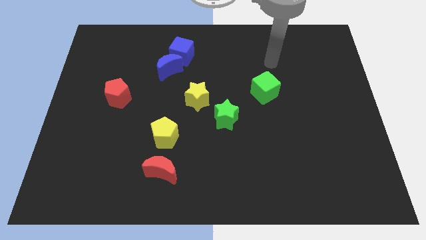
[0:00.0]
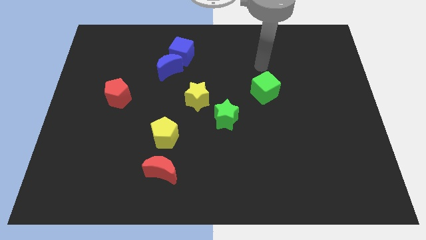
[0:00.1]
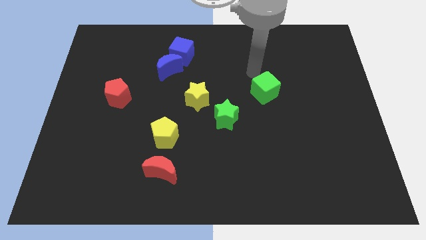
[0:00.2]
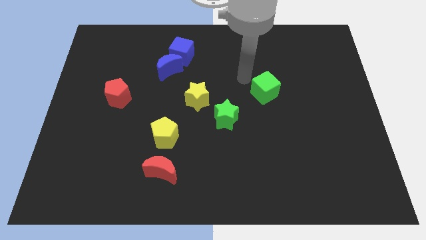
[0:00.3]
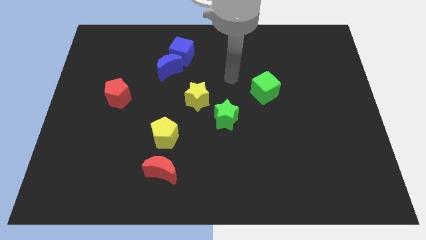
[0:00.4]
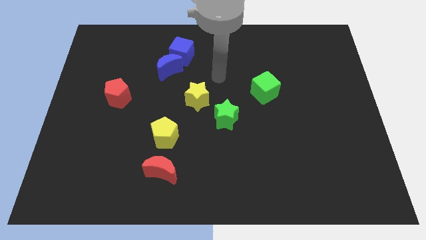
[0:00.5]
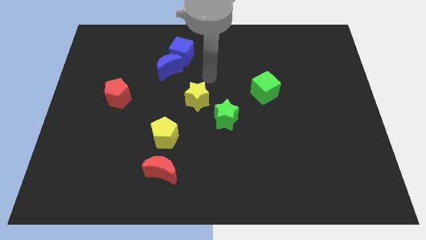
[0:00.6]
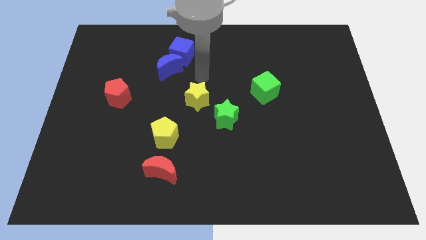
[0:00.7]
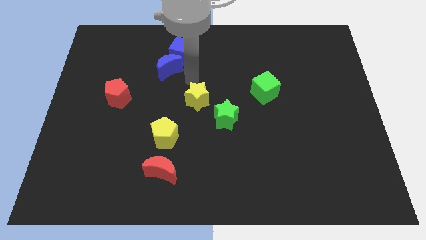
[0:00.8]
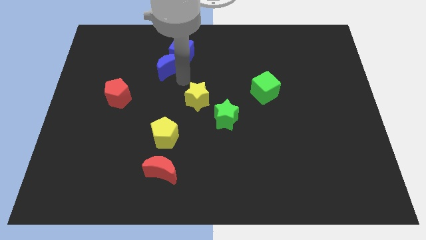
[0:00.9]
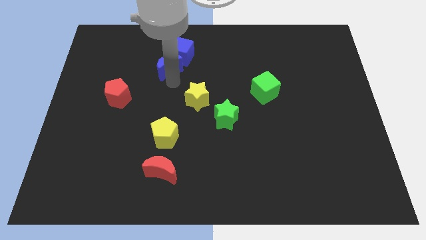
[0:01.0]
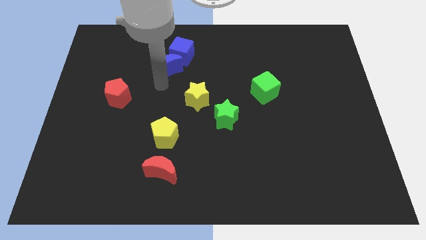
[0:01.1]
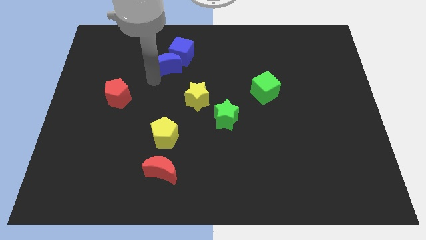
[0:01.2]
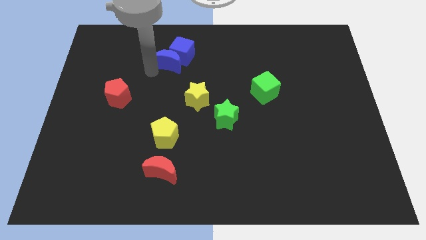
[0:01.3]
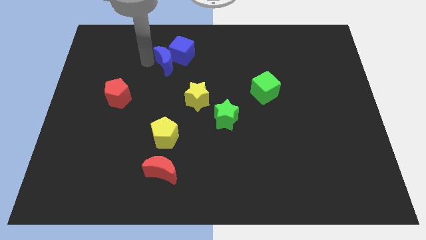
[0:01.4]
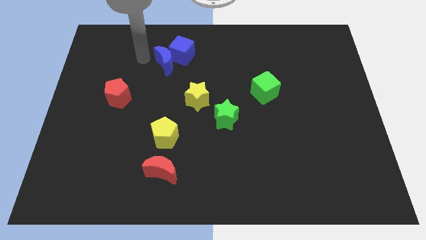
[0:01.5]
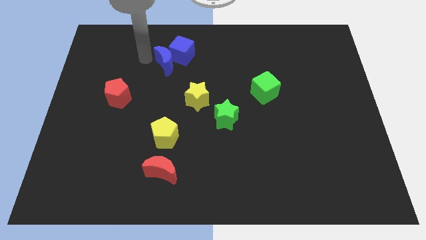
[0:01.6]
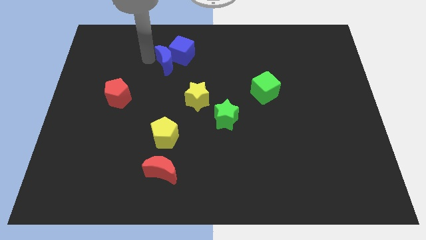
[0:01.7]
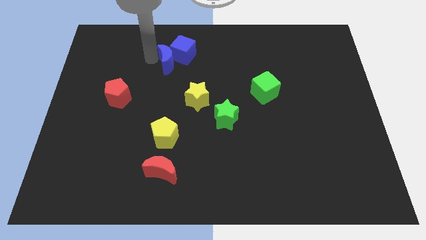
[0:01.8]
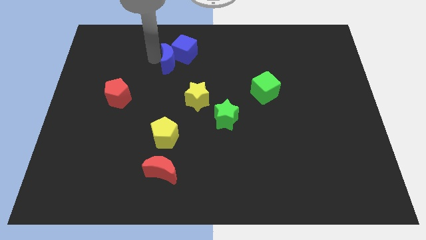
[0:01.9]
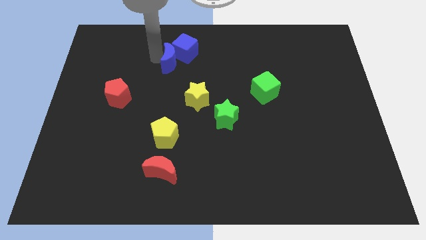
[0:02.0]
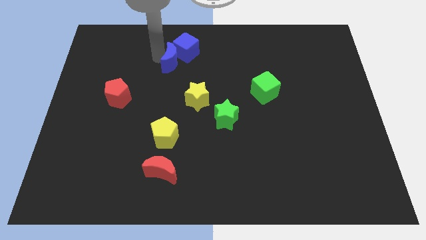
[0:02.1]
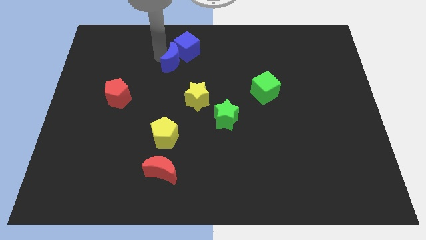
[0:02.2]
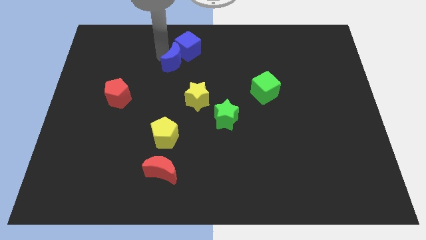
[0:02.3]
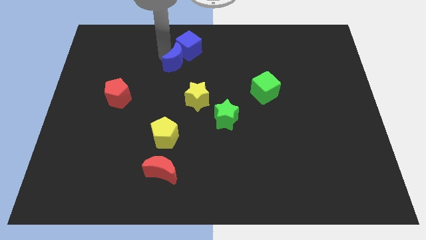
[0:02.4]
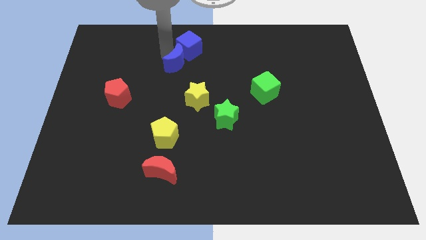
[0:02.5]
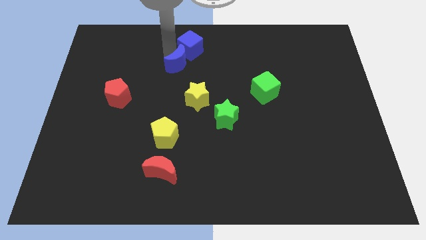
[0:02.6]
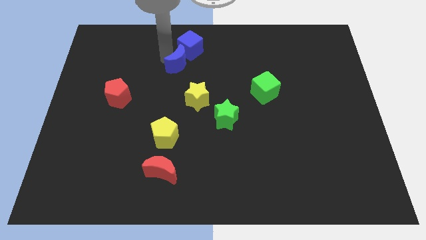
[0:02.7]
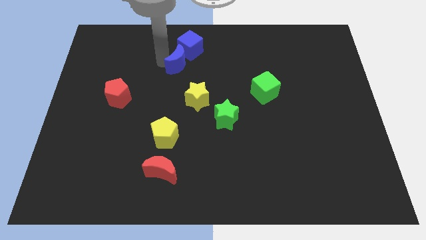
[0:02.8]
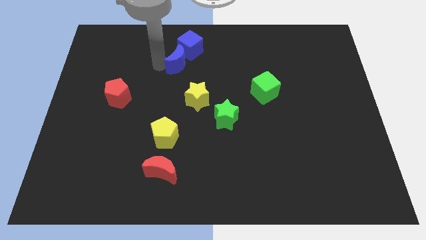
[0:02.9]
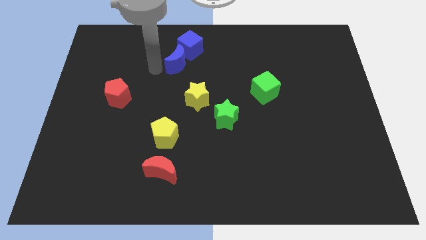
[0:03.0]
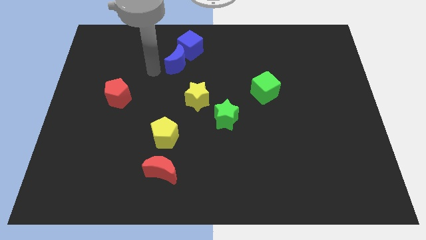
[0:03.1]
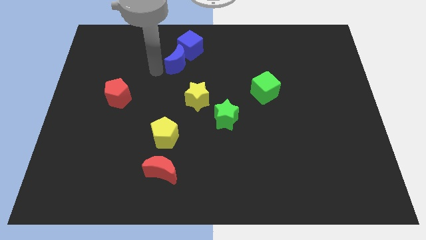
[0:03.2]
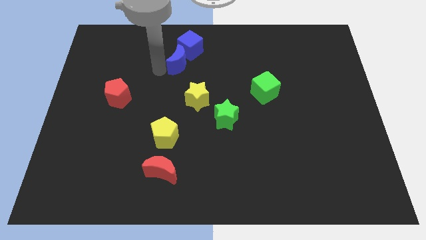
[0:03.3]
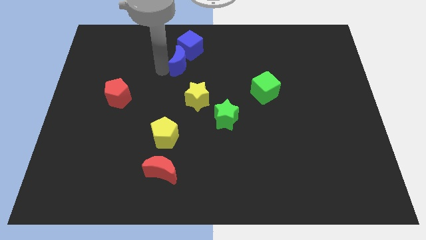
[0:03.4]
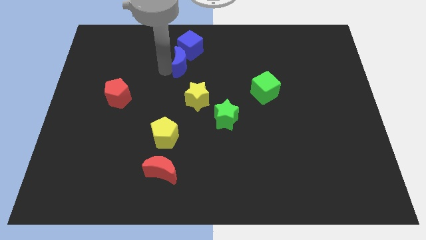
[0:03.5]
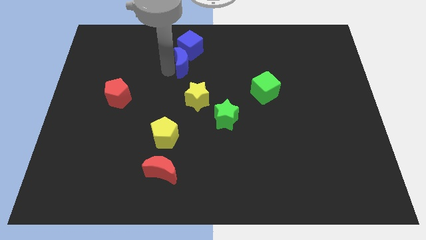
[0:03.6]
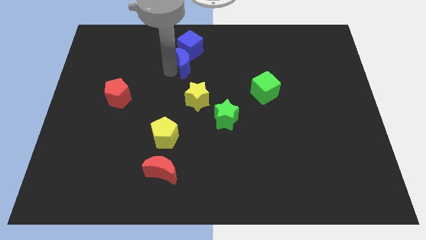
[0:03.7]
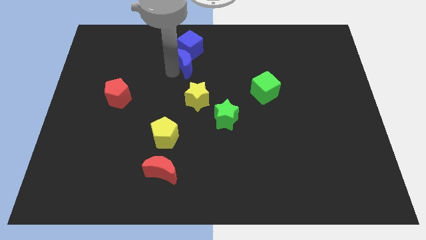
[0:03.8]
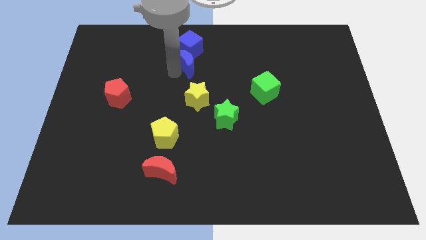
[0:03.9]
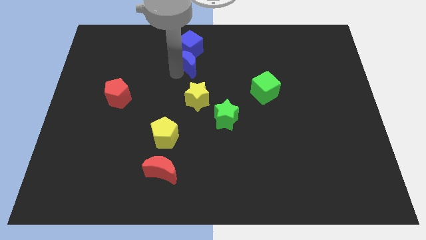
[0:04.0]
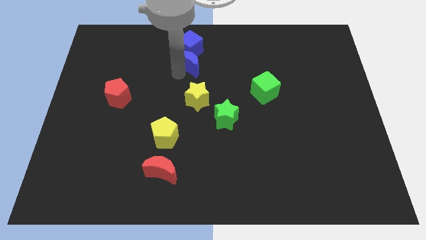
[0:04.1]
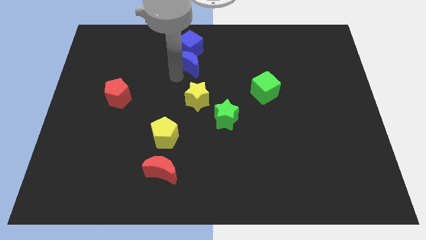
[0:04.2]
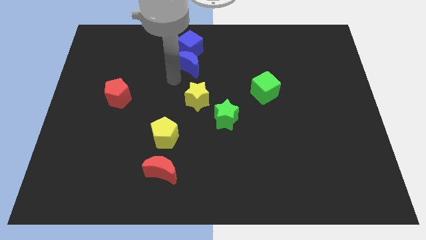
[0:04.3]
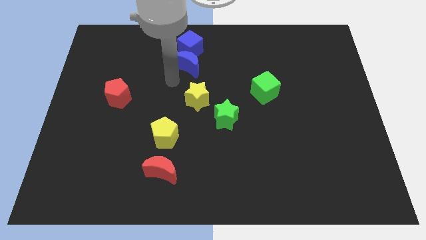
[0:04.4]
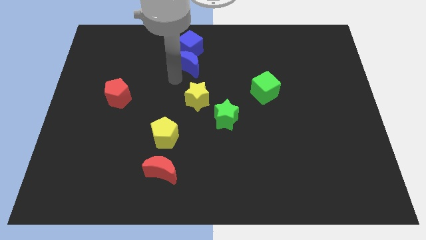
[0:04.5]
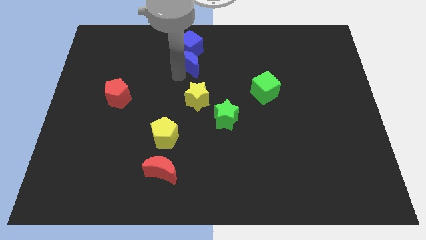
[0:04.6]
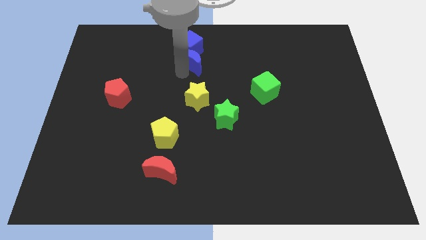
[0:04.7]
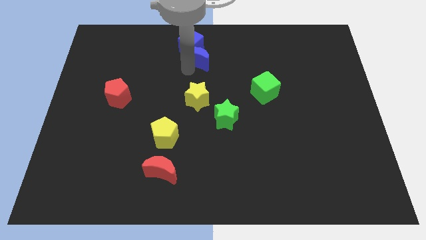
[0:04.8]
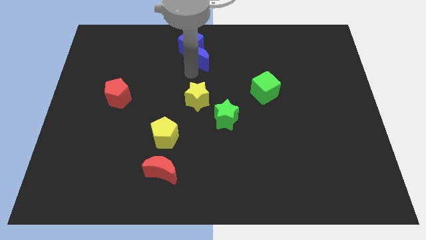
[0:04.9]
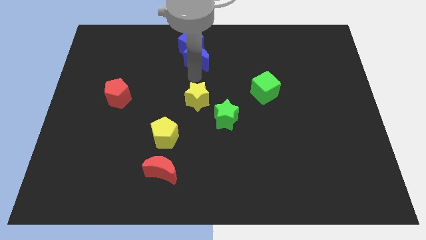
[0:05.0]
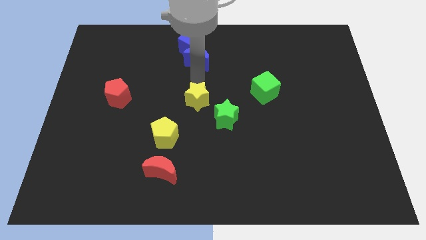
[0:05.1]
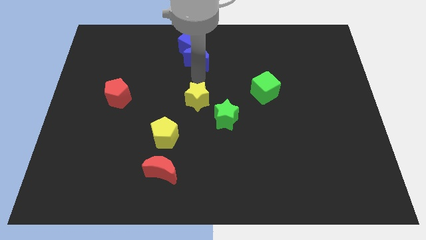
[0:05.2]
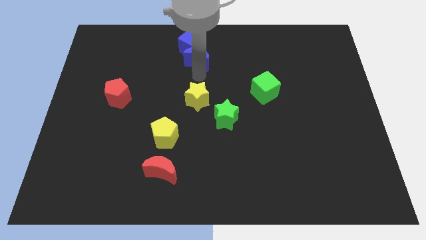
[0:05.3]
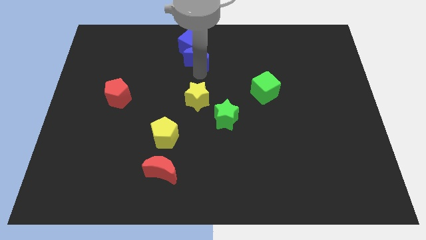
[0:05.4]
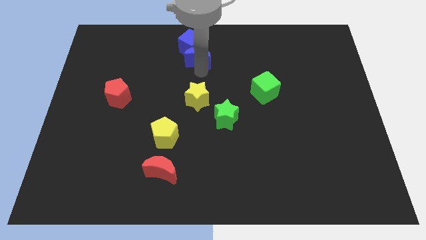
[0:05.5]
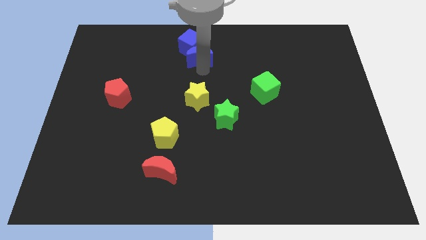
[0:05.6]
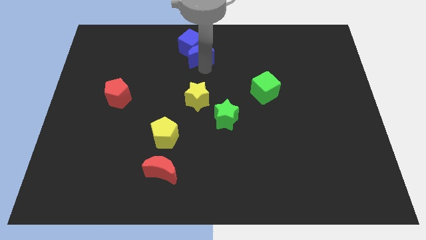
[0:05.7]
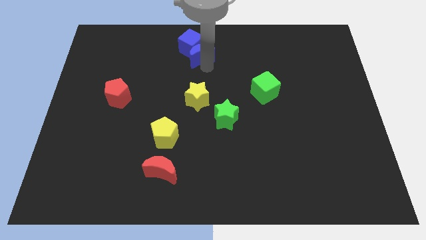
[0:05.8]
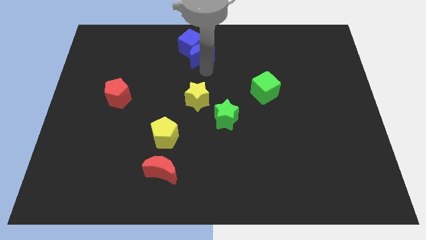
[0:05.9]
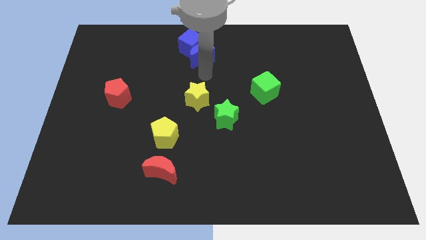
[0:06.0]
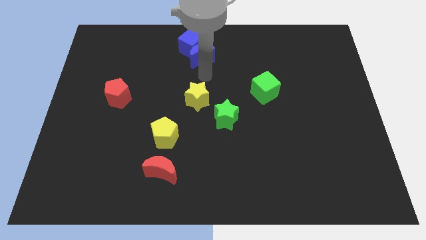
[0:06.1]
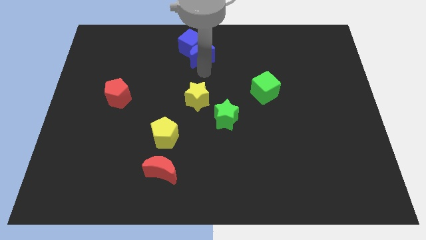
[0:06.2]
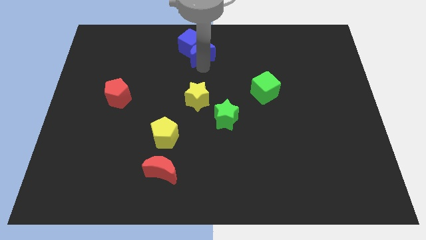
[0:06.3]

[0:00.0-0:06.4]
move the blue moon to the top side
